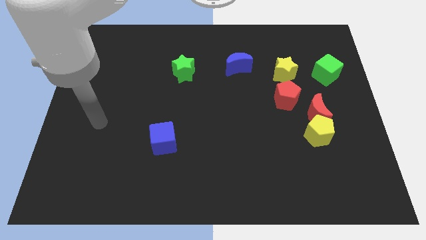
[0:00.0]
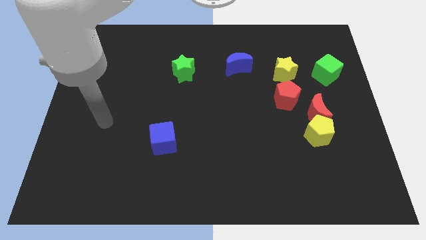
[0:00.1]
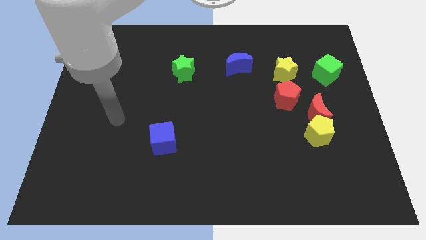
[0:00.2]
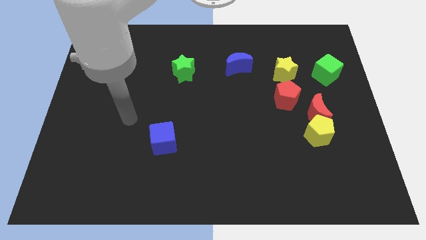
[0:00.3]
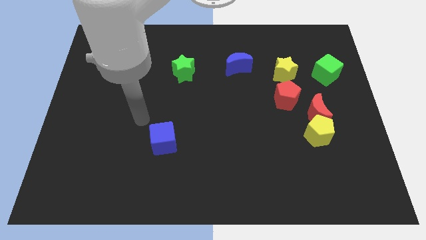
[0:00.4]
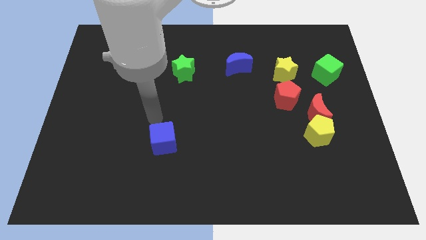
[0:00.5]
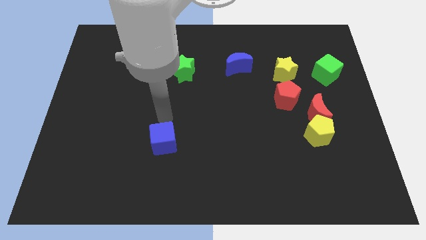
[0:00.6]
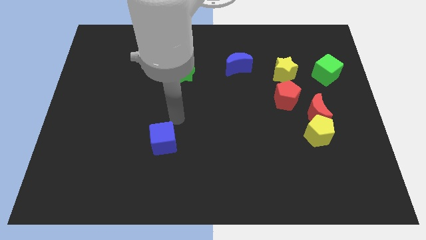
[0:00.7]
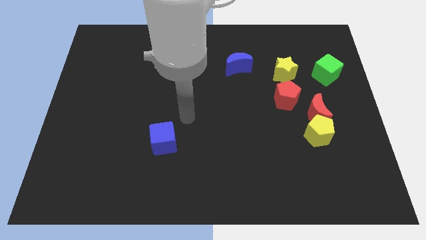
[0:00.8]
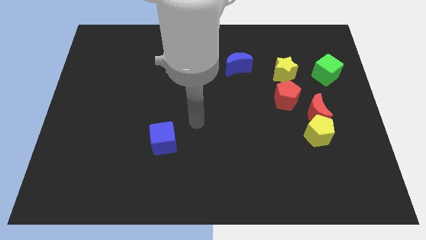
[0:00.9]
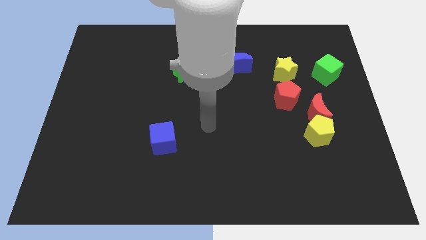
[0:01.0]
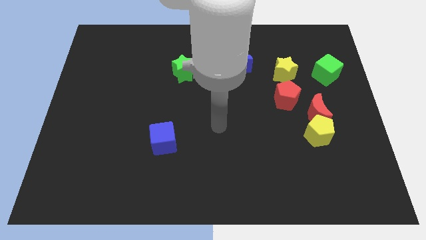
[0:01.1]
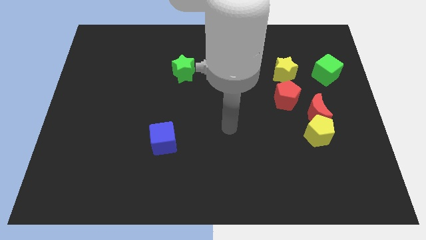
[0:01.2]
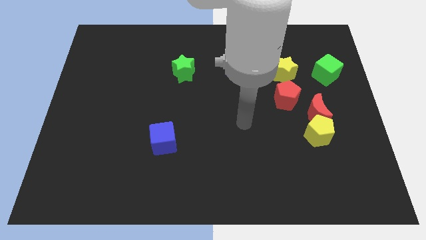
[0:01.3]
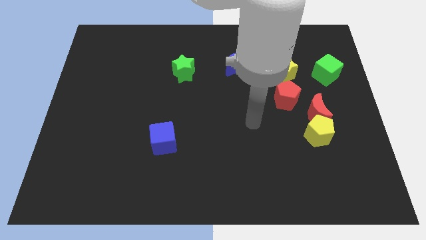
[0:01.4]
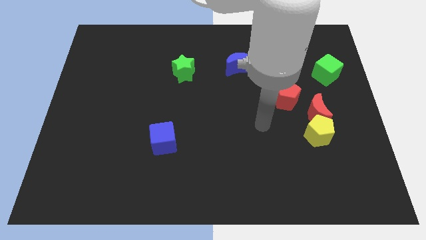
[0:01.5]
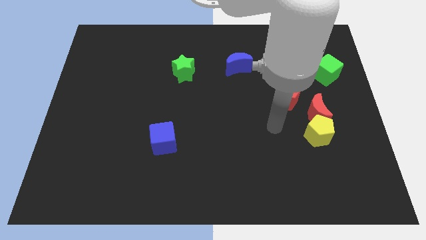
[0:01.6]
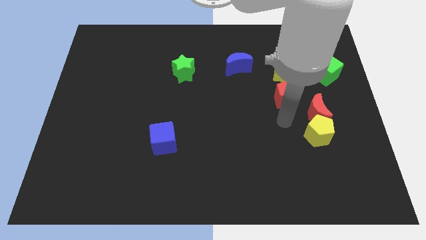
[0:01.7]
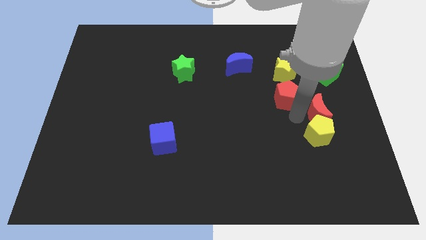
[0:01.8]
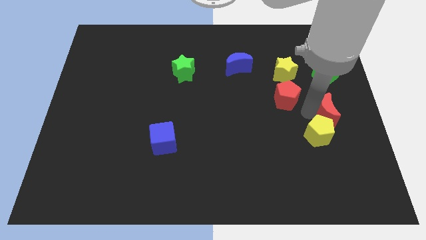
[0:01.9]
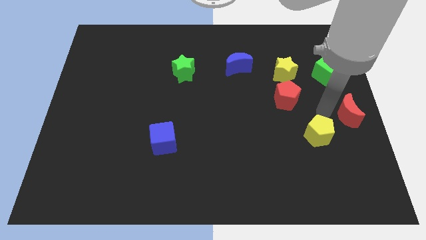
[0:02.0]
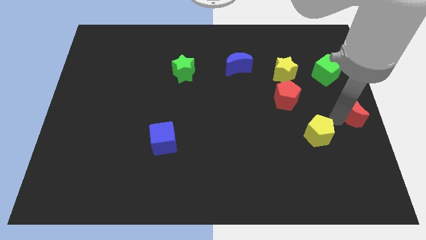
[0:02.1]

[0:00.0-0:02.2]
pull the yellow pentagon apart from the red moon

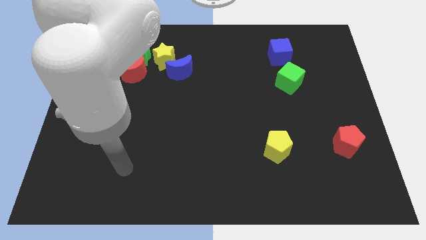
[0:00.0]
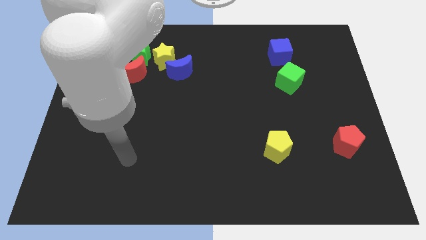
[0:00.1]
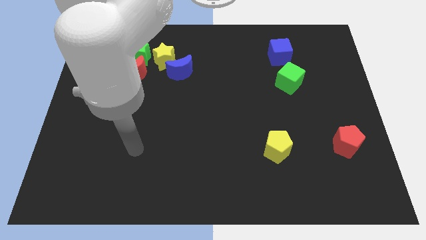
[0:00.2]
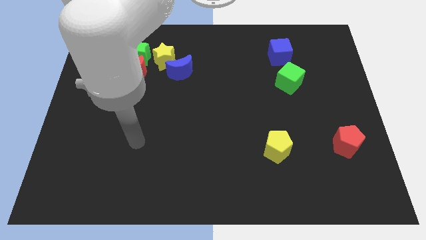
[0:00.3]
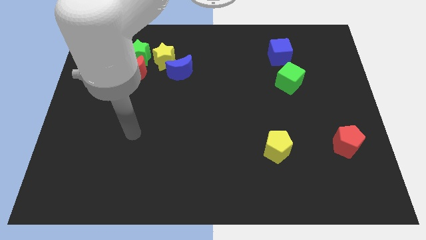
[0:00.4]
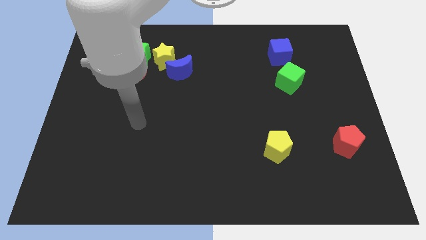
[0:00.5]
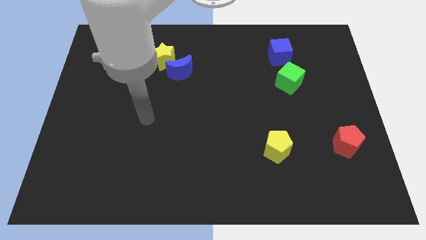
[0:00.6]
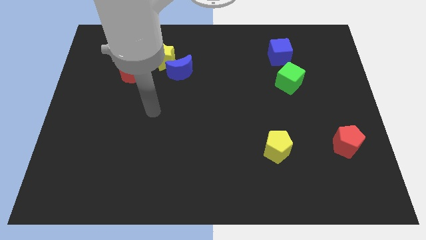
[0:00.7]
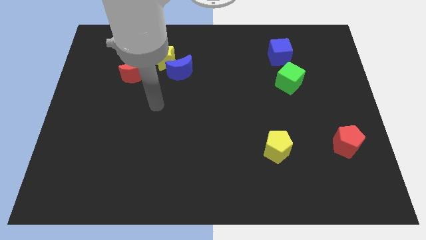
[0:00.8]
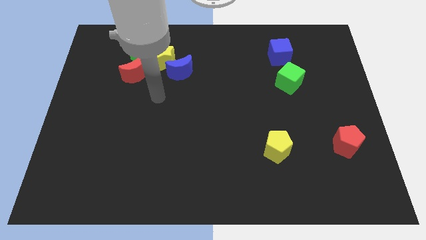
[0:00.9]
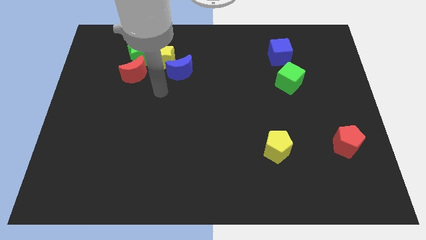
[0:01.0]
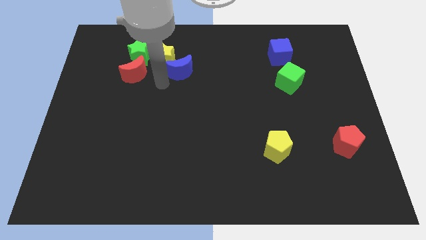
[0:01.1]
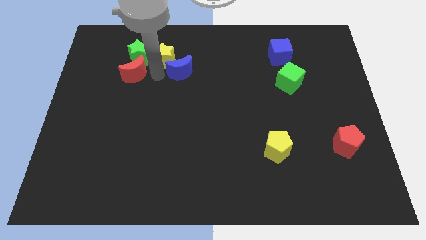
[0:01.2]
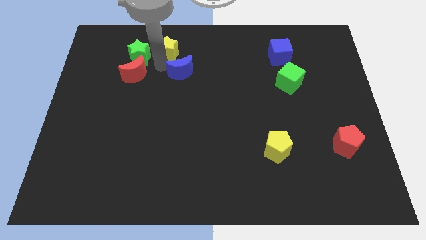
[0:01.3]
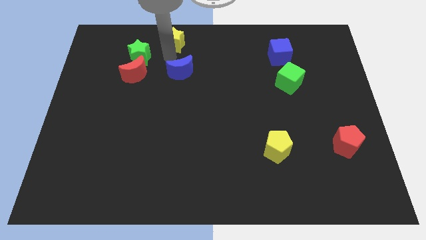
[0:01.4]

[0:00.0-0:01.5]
separate the blue moon from the yellow star

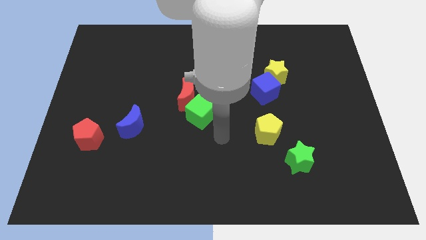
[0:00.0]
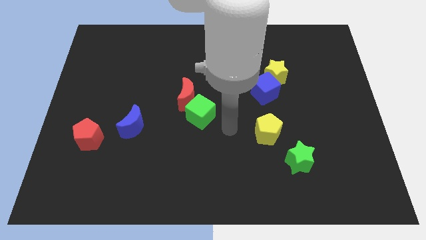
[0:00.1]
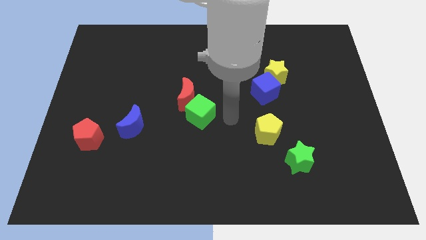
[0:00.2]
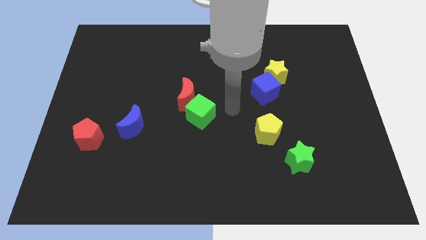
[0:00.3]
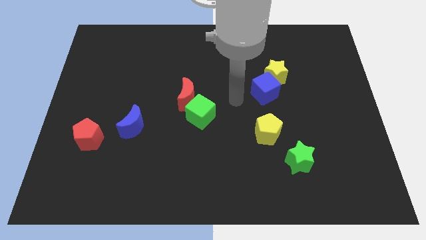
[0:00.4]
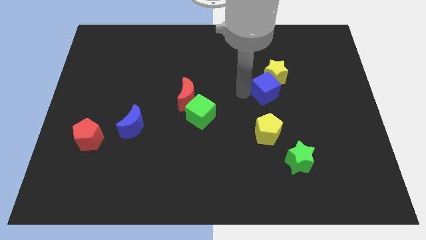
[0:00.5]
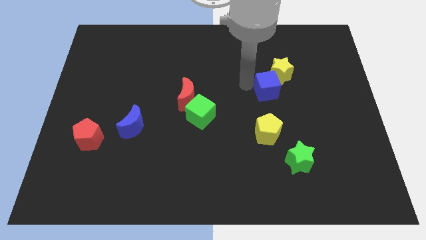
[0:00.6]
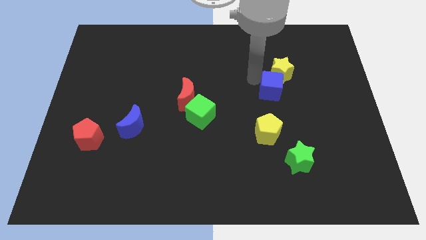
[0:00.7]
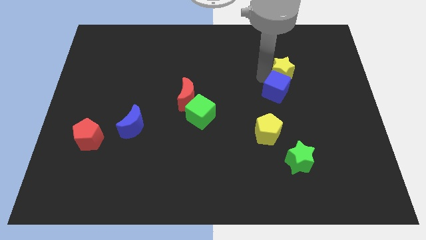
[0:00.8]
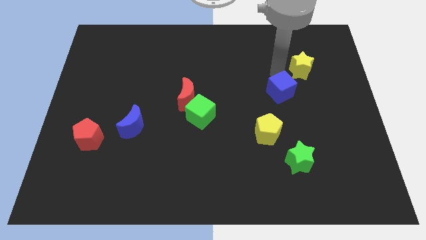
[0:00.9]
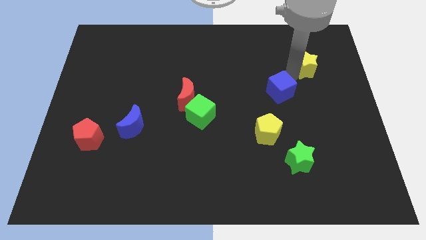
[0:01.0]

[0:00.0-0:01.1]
pull the blue cube apart from the yellow star

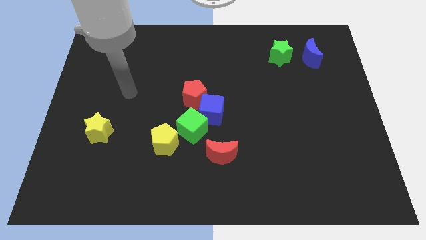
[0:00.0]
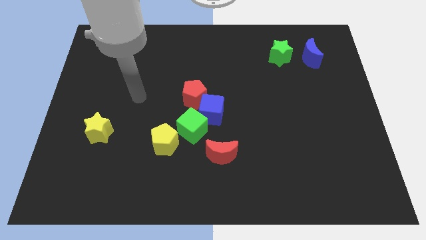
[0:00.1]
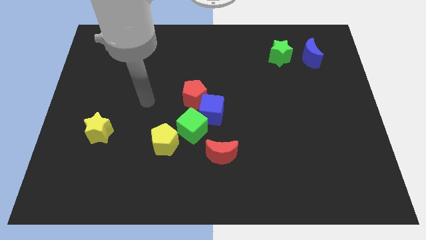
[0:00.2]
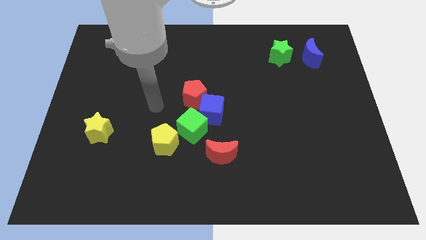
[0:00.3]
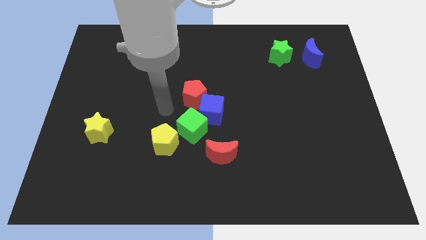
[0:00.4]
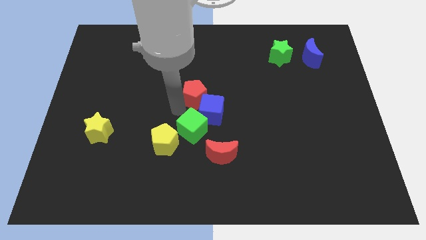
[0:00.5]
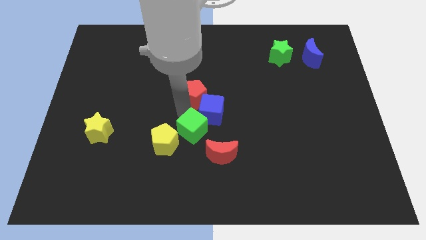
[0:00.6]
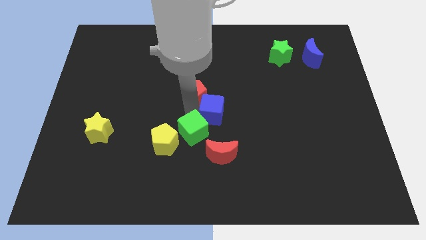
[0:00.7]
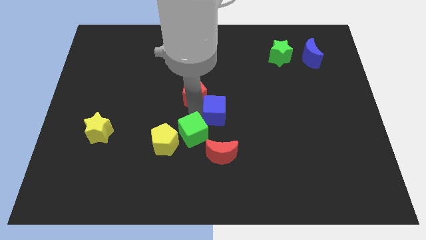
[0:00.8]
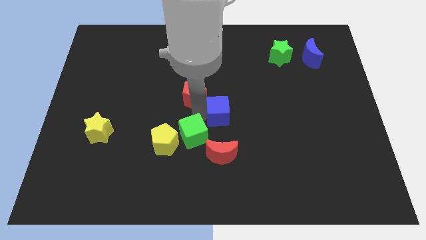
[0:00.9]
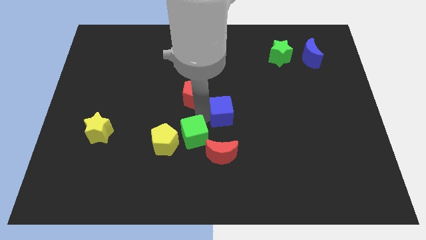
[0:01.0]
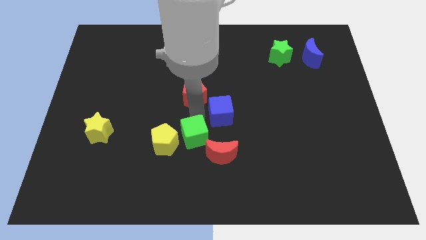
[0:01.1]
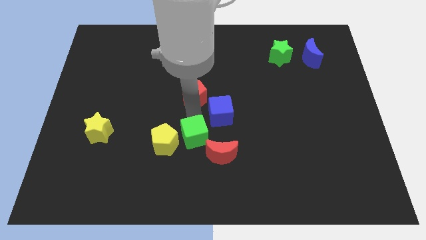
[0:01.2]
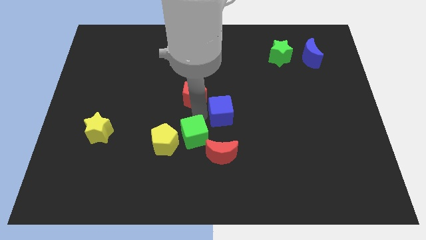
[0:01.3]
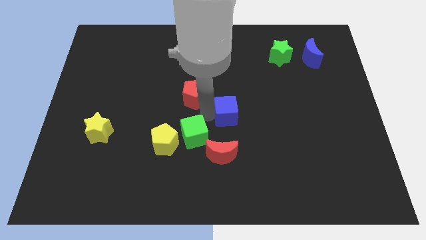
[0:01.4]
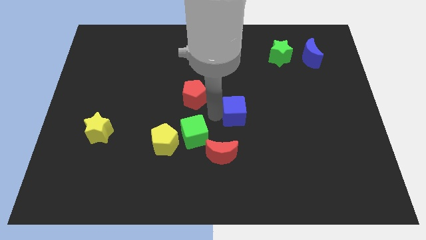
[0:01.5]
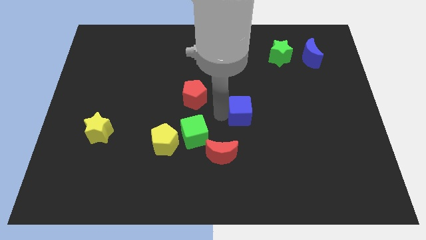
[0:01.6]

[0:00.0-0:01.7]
move the blue cube away from the red pentagon and green cube

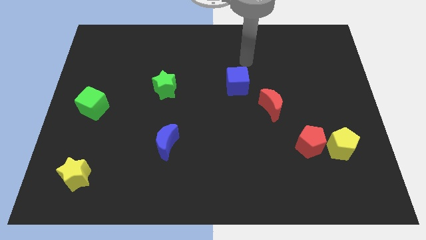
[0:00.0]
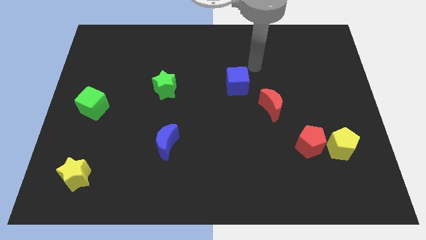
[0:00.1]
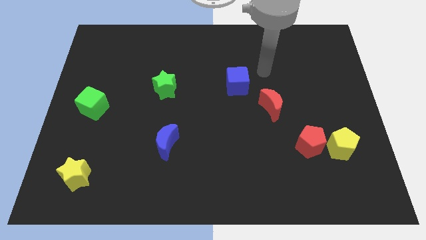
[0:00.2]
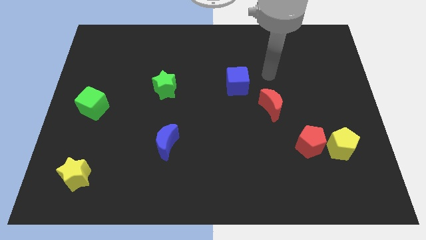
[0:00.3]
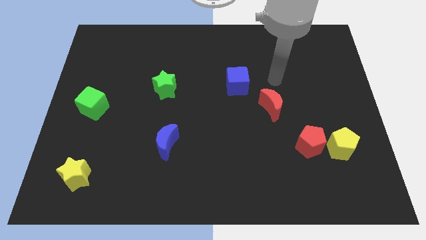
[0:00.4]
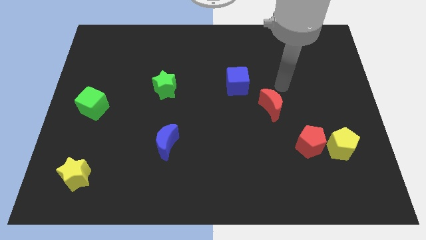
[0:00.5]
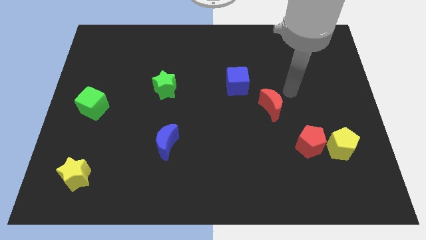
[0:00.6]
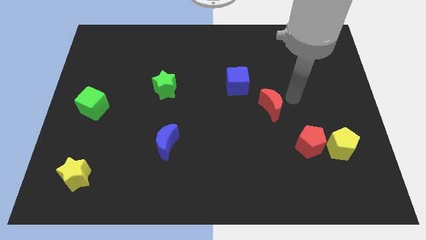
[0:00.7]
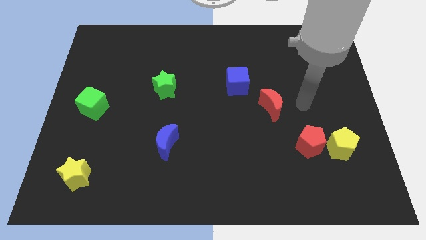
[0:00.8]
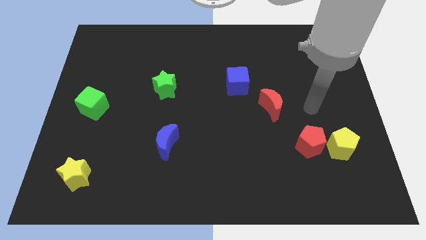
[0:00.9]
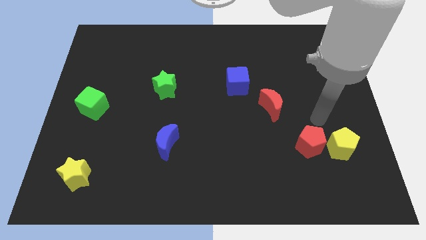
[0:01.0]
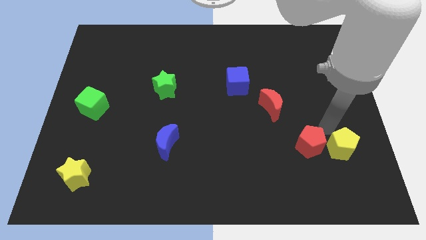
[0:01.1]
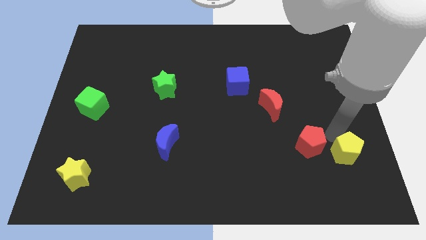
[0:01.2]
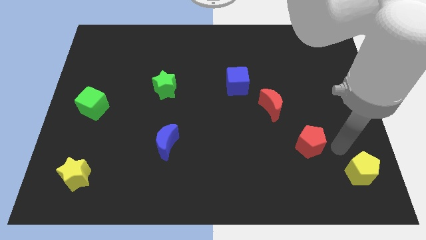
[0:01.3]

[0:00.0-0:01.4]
separate the red pentagon from the yellow pentagon

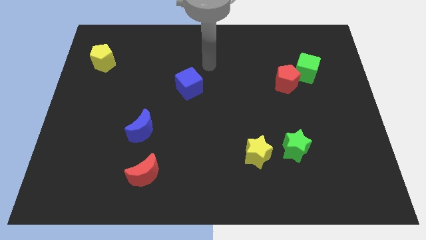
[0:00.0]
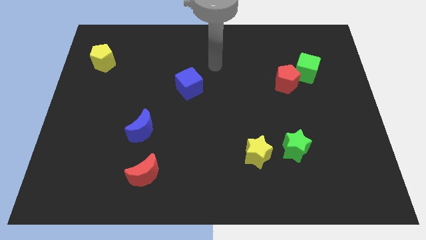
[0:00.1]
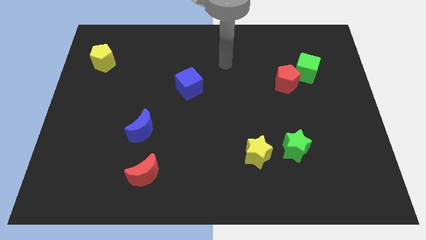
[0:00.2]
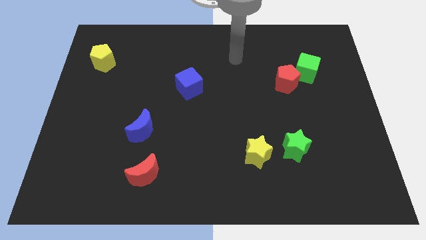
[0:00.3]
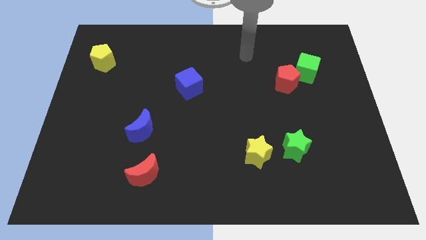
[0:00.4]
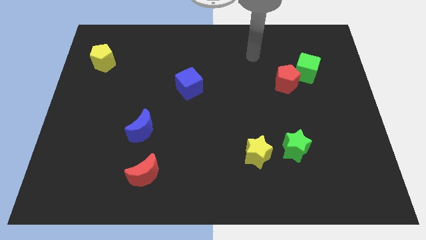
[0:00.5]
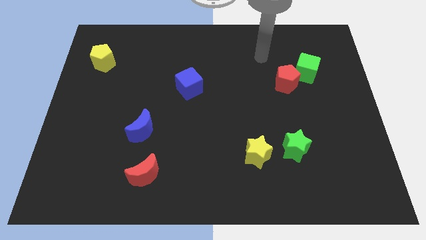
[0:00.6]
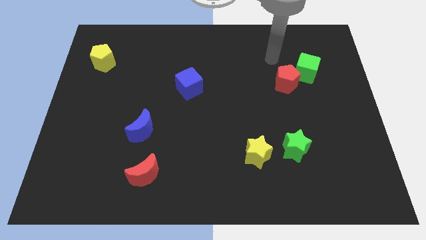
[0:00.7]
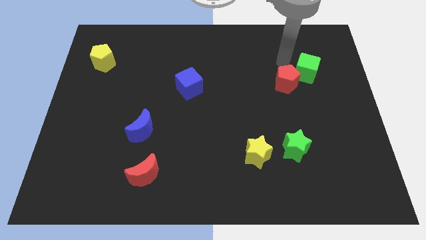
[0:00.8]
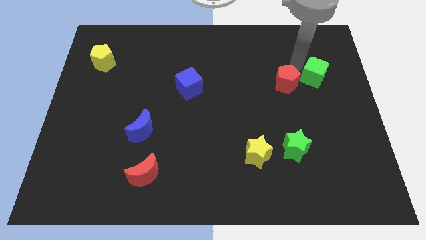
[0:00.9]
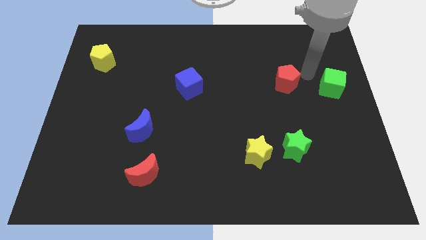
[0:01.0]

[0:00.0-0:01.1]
pull the red pentagon apart from the green cube
